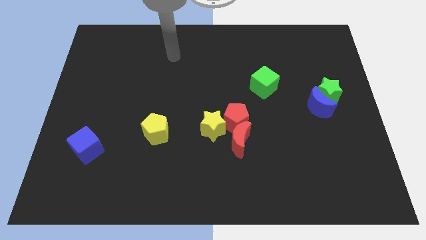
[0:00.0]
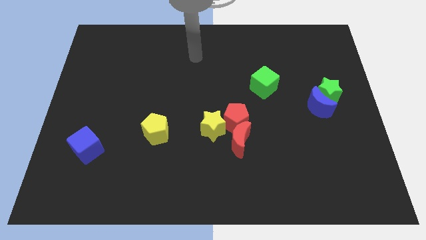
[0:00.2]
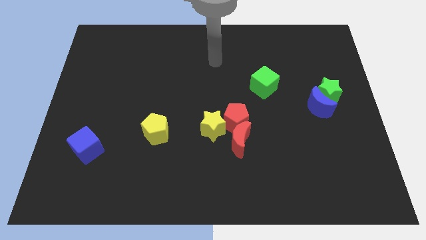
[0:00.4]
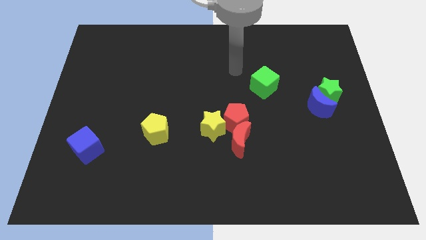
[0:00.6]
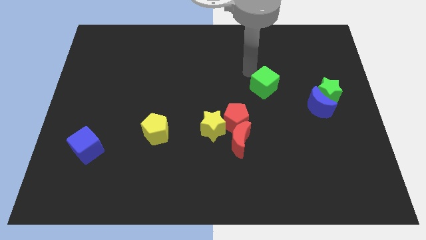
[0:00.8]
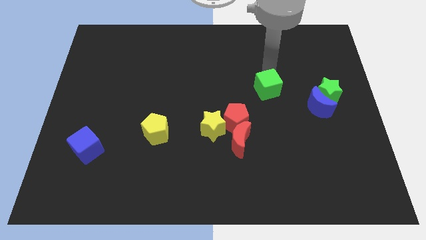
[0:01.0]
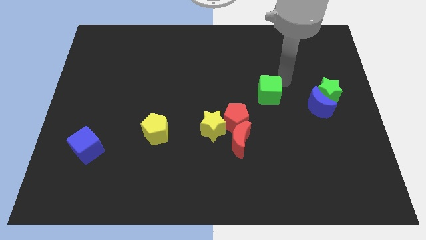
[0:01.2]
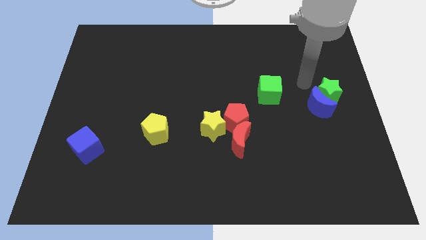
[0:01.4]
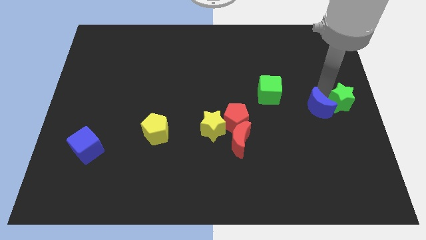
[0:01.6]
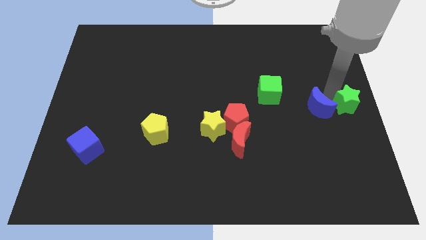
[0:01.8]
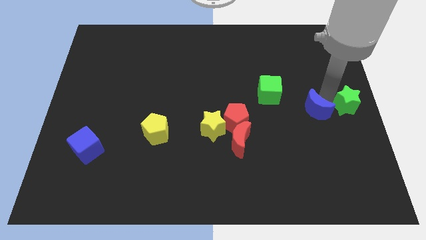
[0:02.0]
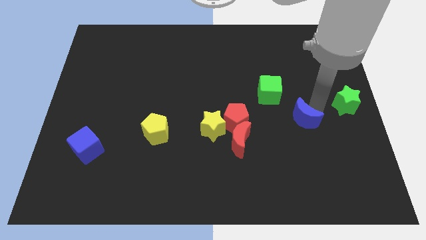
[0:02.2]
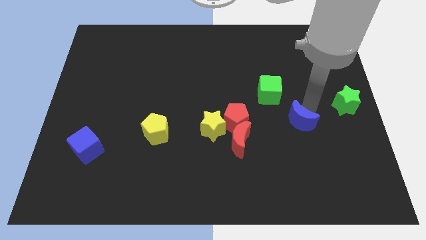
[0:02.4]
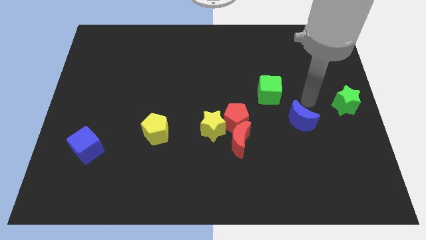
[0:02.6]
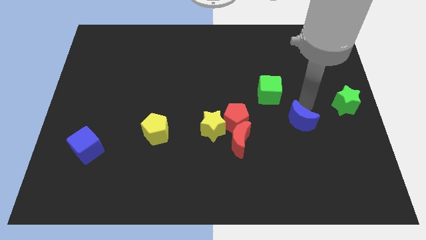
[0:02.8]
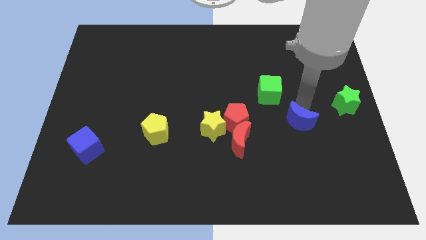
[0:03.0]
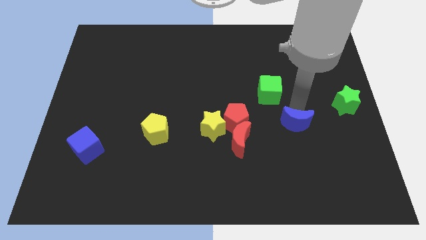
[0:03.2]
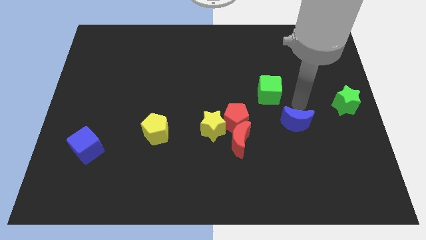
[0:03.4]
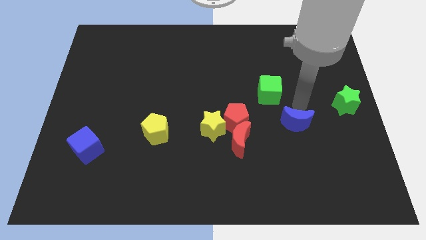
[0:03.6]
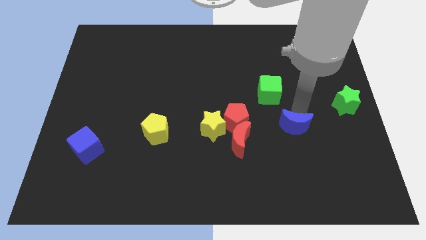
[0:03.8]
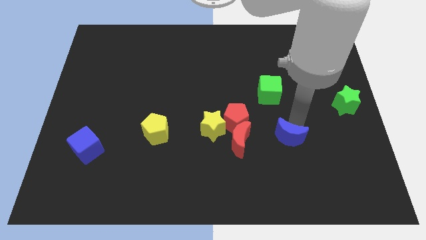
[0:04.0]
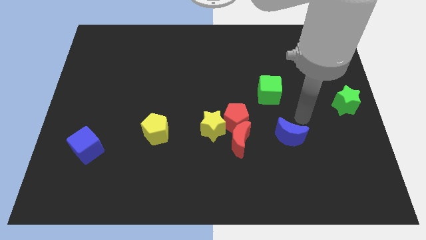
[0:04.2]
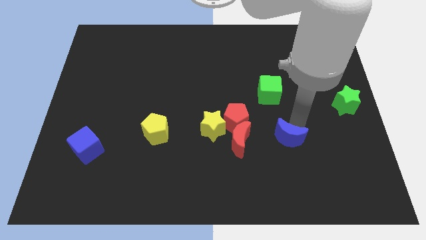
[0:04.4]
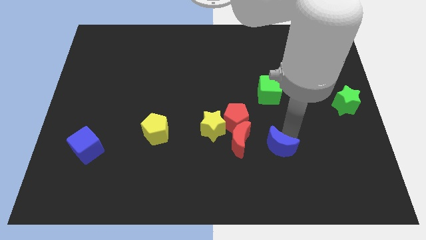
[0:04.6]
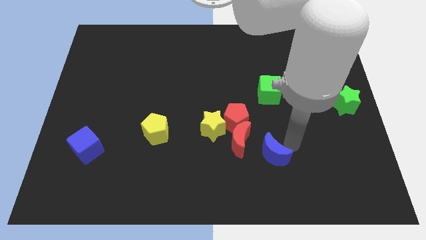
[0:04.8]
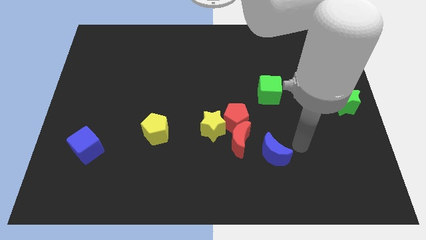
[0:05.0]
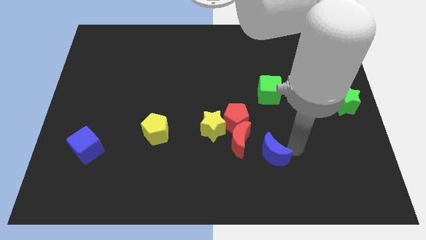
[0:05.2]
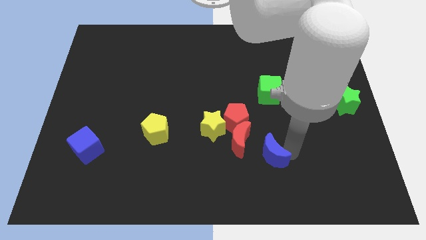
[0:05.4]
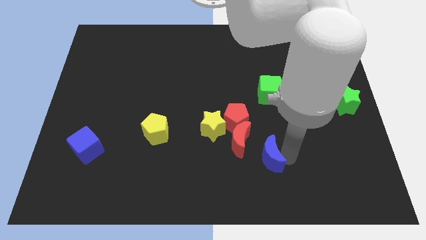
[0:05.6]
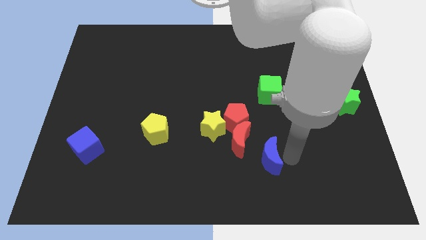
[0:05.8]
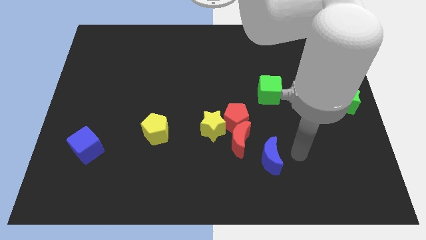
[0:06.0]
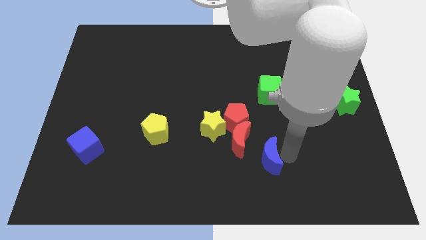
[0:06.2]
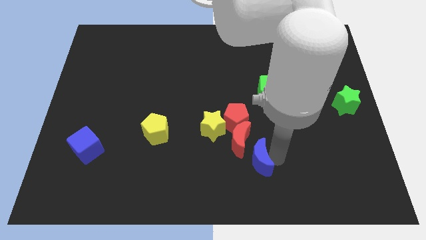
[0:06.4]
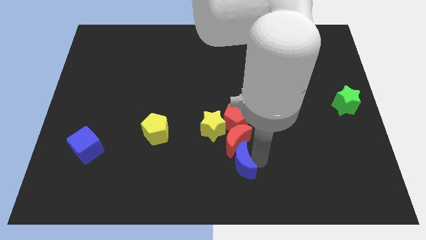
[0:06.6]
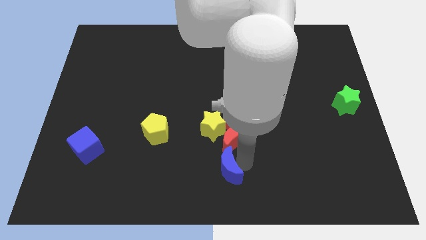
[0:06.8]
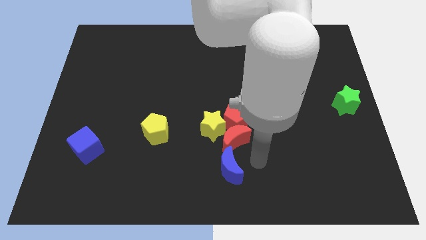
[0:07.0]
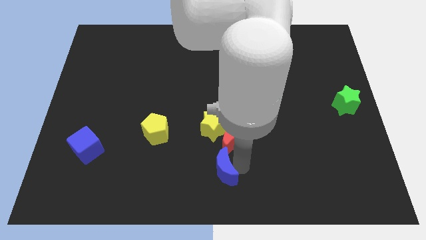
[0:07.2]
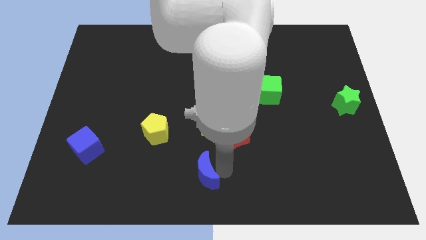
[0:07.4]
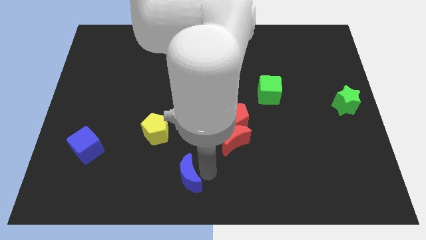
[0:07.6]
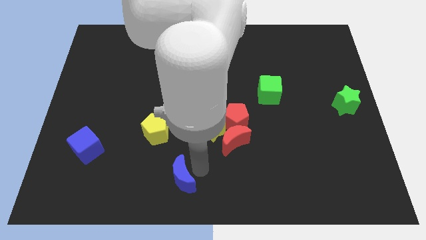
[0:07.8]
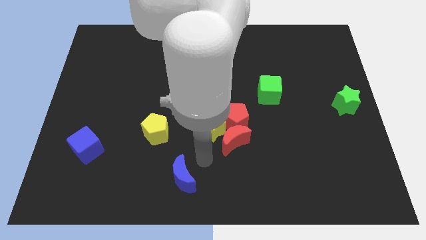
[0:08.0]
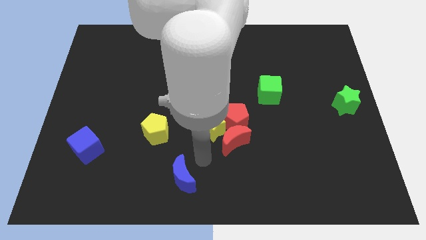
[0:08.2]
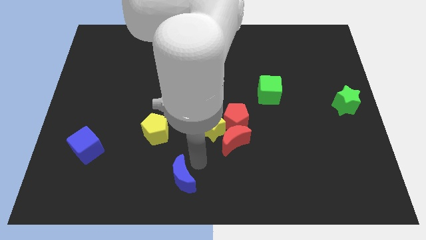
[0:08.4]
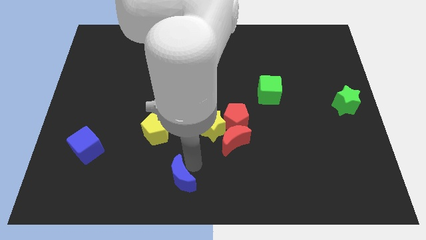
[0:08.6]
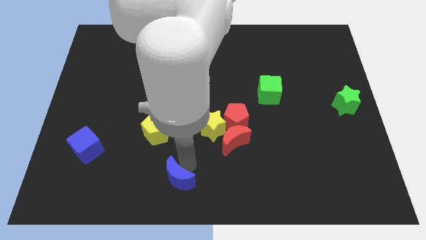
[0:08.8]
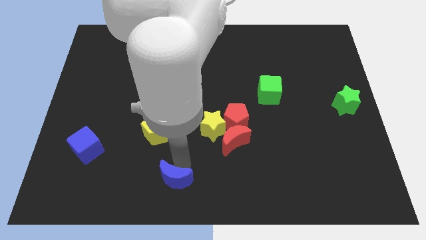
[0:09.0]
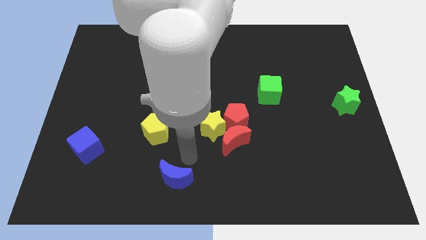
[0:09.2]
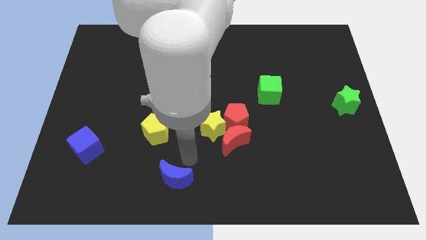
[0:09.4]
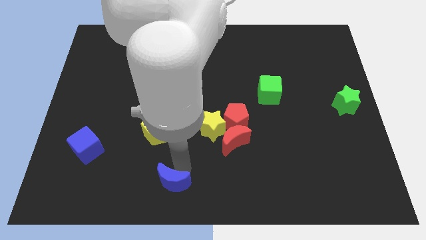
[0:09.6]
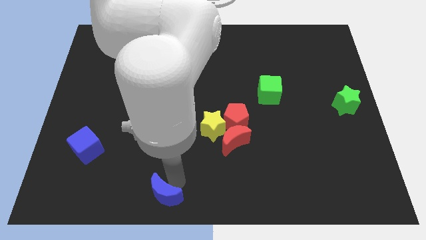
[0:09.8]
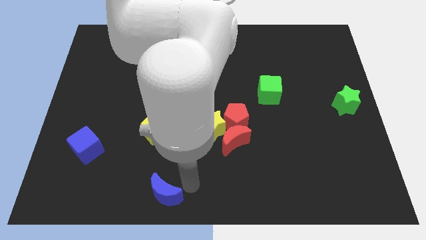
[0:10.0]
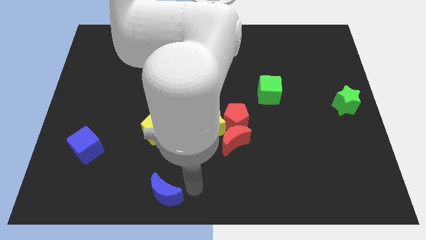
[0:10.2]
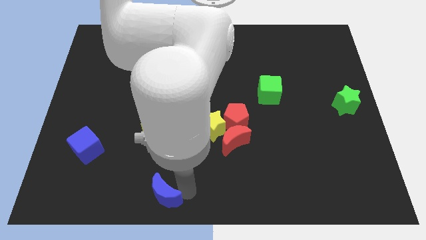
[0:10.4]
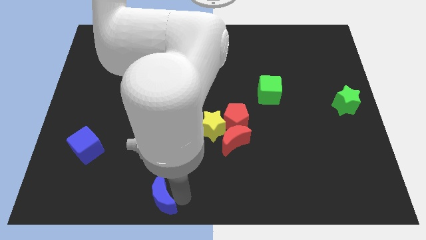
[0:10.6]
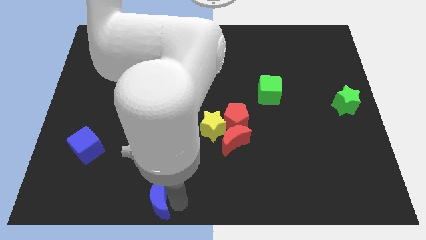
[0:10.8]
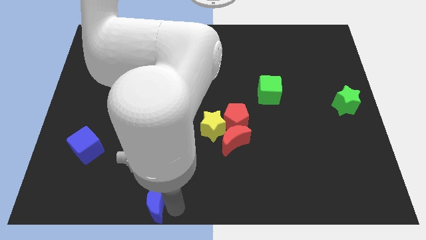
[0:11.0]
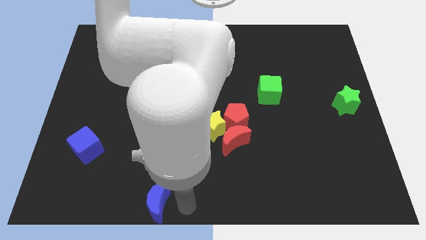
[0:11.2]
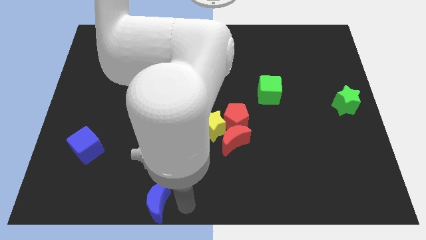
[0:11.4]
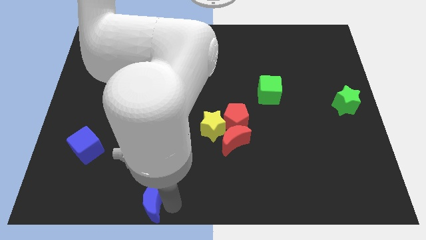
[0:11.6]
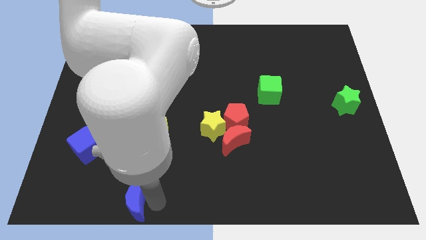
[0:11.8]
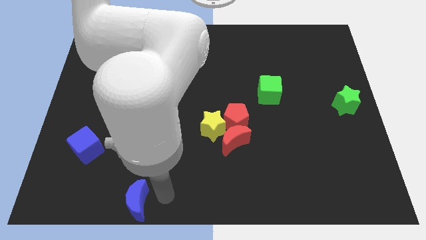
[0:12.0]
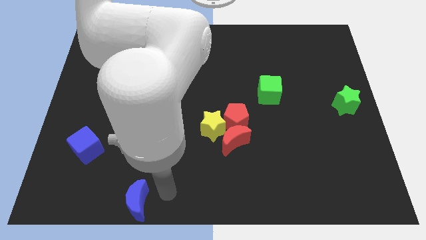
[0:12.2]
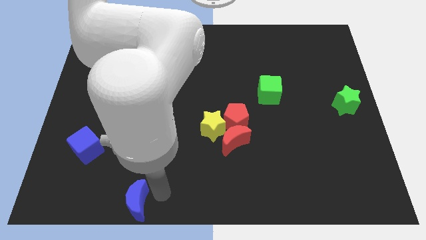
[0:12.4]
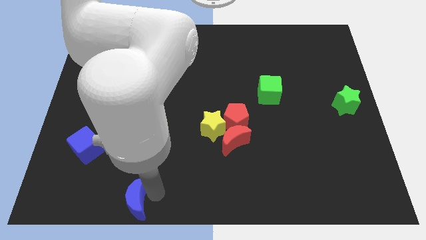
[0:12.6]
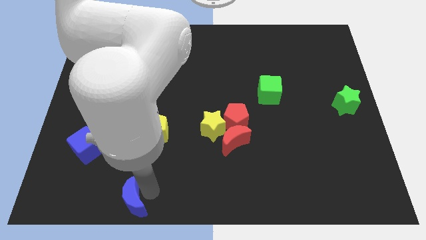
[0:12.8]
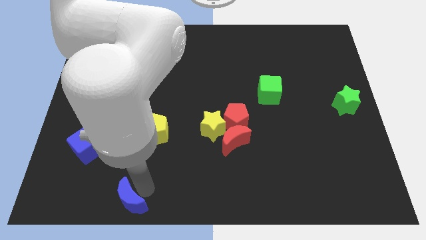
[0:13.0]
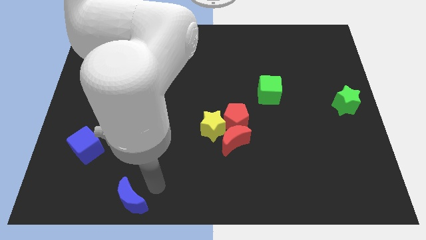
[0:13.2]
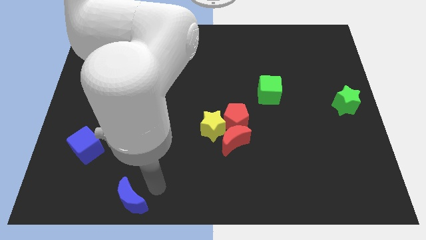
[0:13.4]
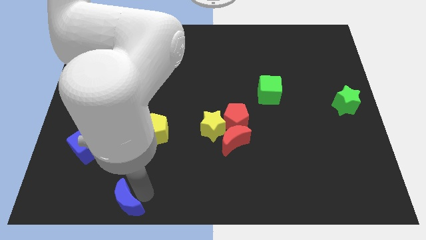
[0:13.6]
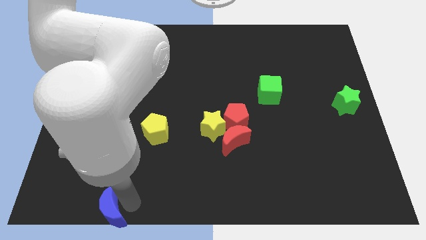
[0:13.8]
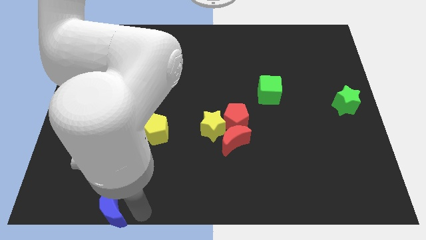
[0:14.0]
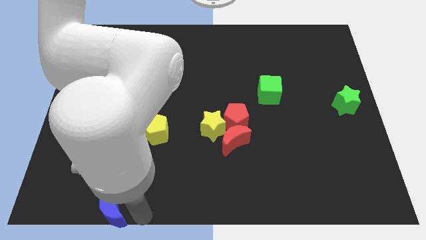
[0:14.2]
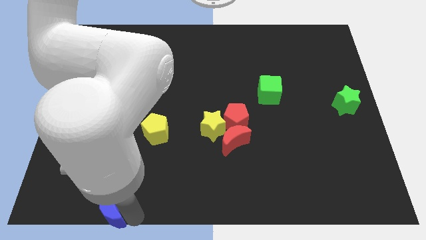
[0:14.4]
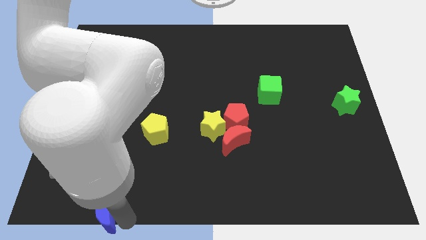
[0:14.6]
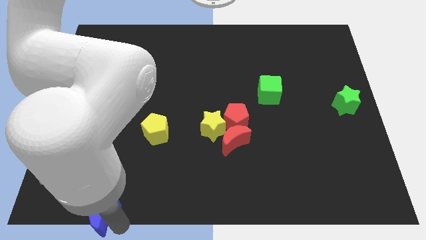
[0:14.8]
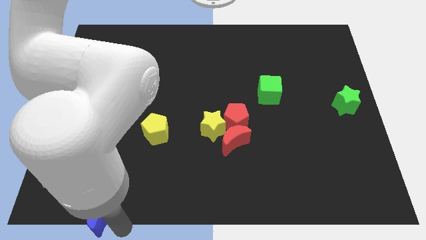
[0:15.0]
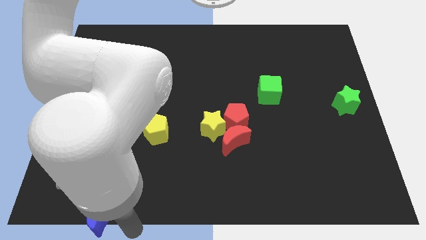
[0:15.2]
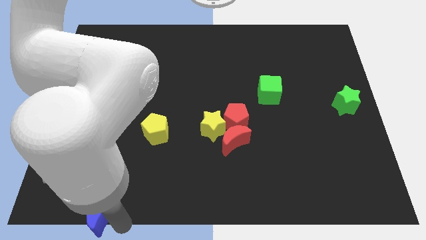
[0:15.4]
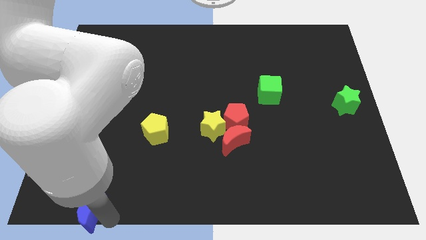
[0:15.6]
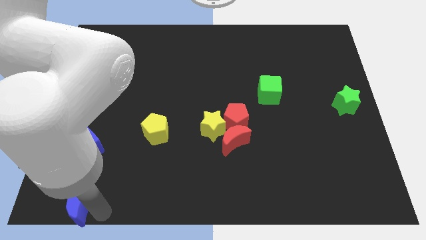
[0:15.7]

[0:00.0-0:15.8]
move the blue moon to the bottom left of the board
